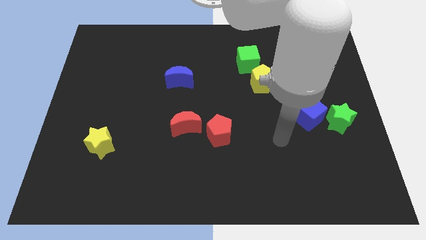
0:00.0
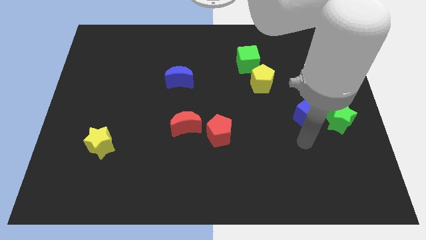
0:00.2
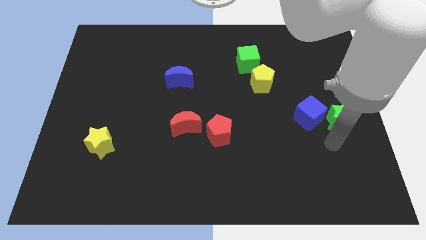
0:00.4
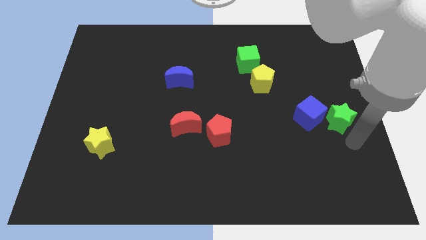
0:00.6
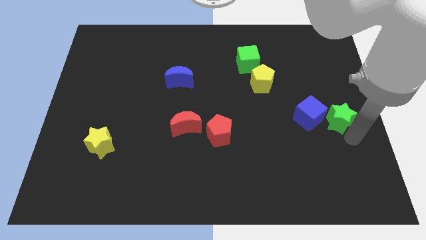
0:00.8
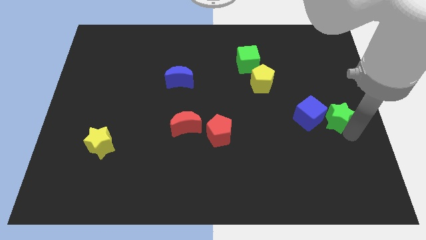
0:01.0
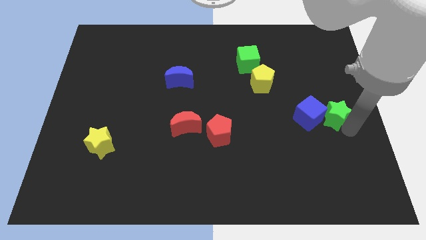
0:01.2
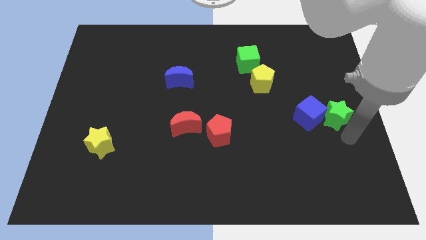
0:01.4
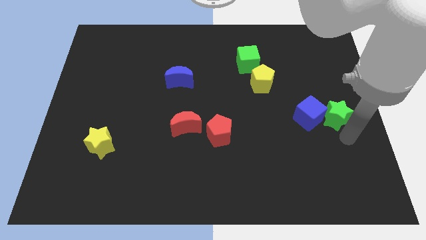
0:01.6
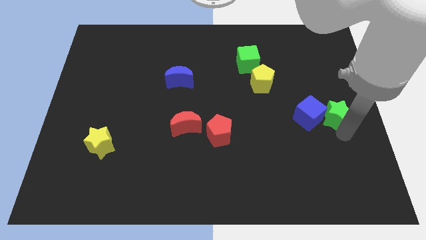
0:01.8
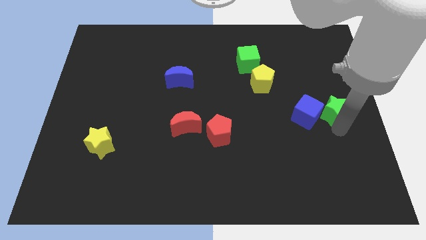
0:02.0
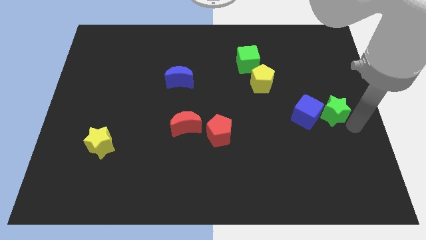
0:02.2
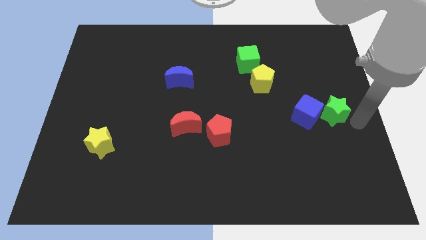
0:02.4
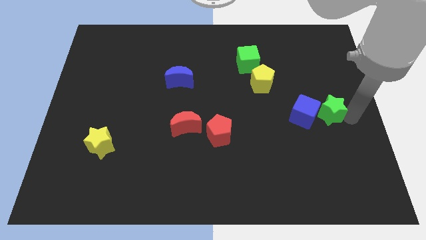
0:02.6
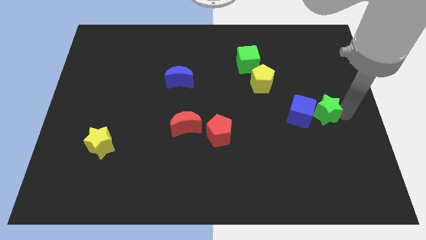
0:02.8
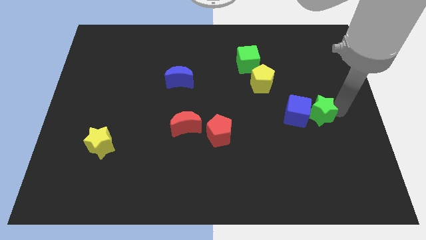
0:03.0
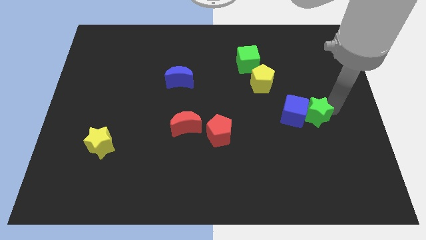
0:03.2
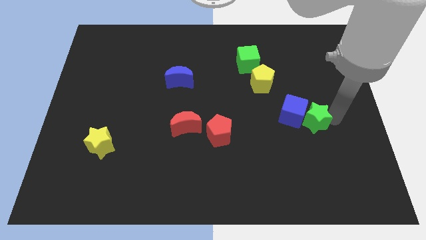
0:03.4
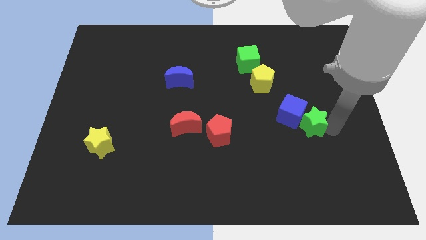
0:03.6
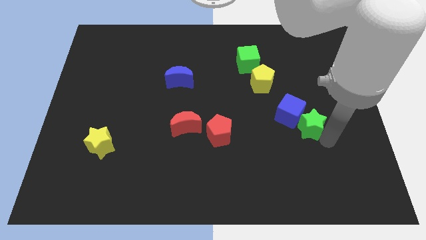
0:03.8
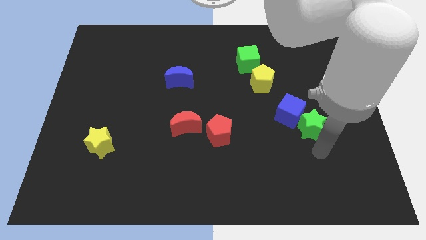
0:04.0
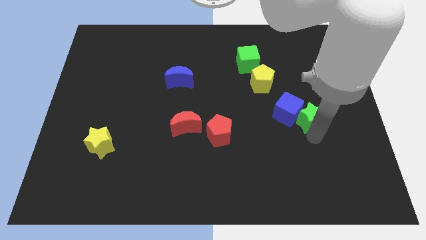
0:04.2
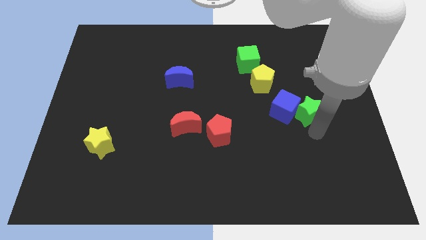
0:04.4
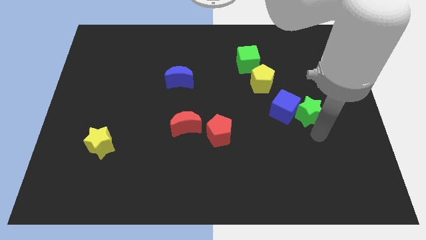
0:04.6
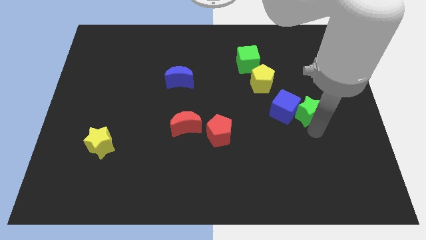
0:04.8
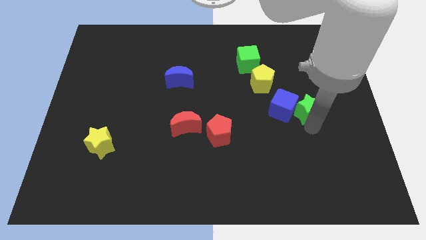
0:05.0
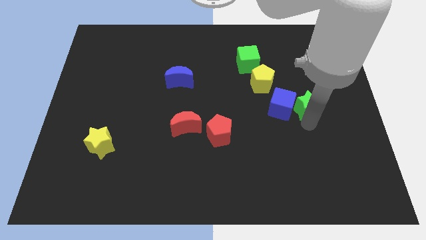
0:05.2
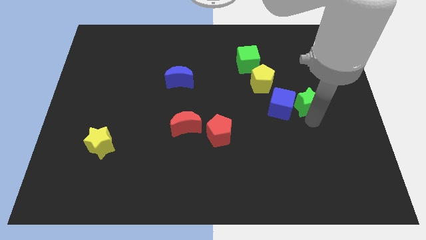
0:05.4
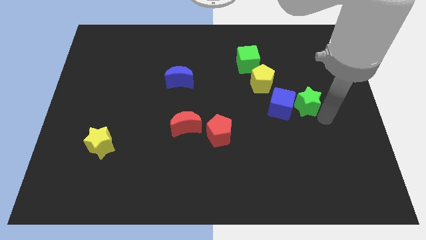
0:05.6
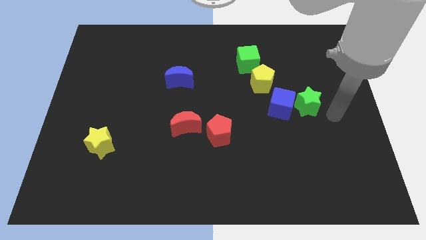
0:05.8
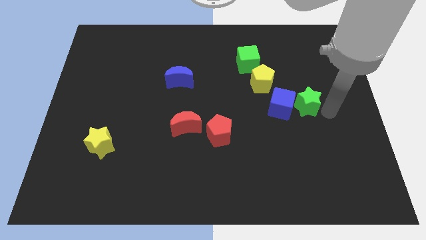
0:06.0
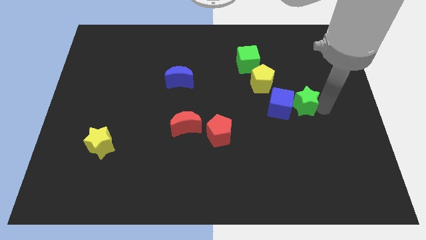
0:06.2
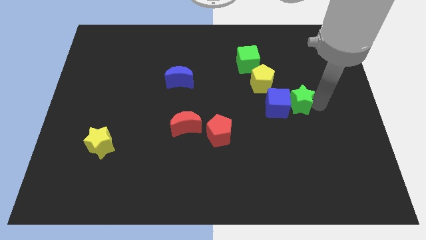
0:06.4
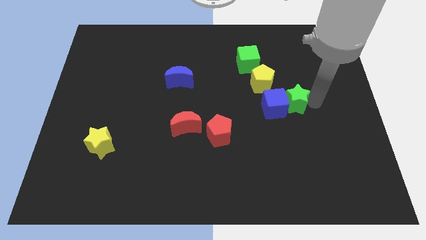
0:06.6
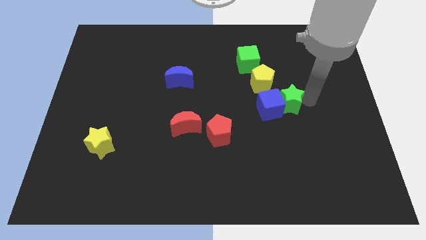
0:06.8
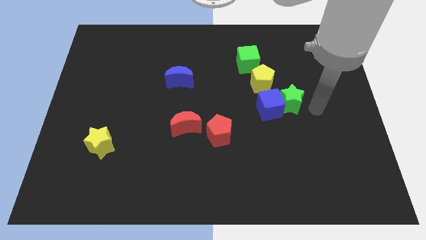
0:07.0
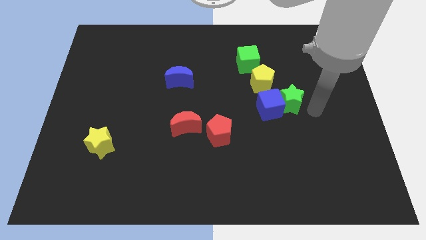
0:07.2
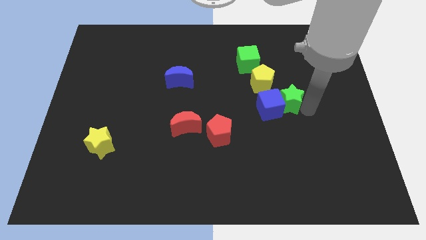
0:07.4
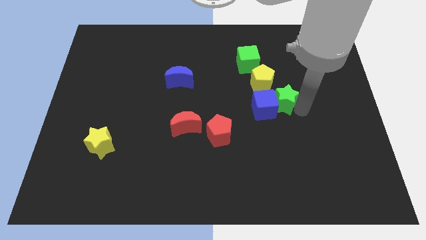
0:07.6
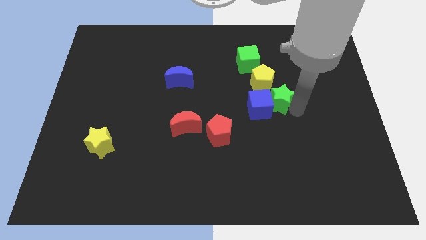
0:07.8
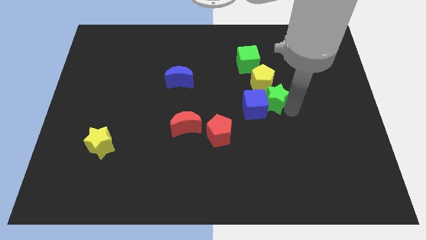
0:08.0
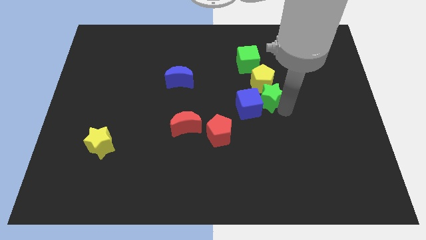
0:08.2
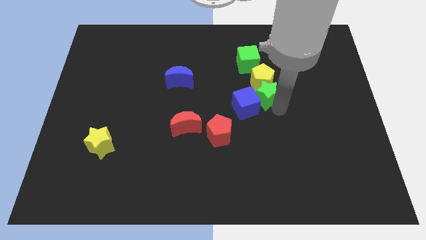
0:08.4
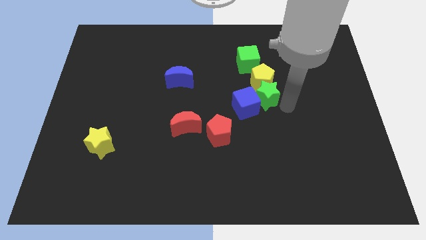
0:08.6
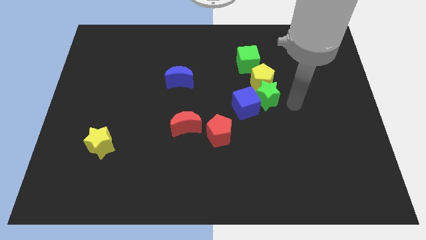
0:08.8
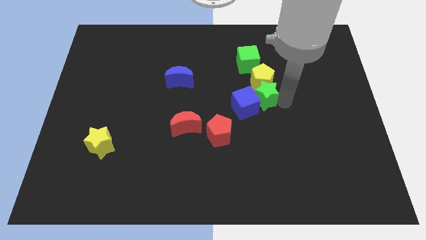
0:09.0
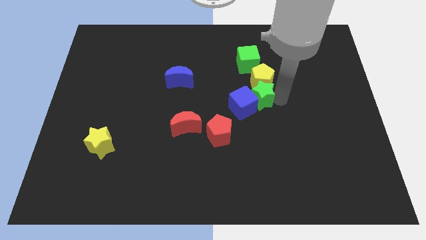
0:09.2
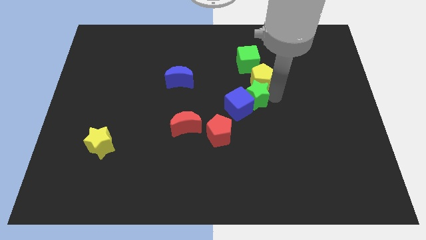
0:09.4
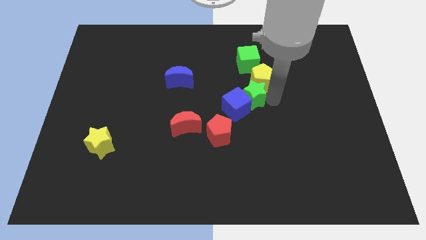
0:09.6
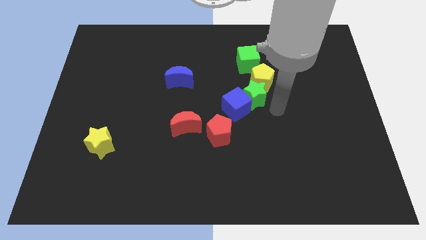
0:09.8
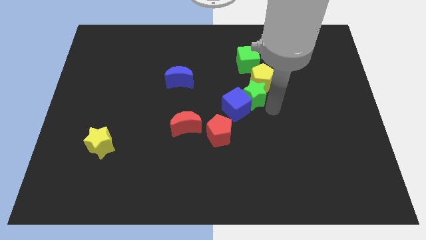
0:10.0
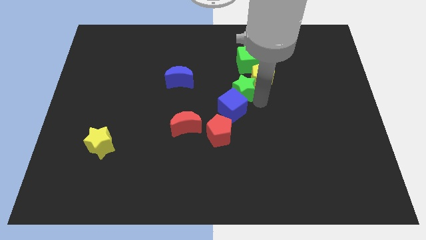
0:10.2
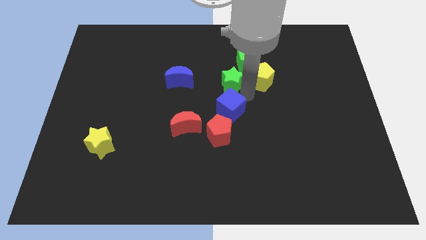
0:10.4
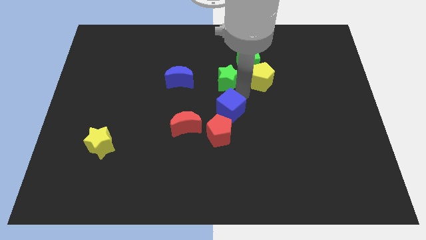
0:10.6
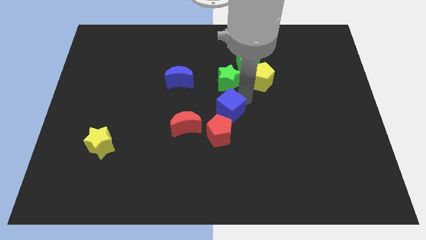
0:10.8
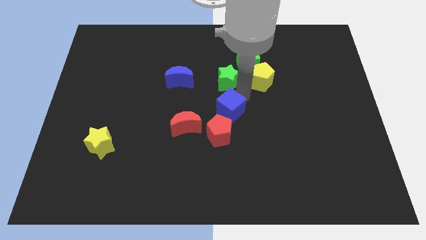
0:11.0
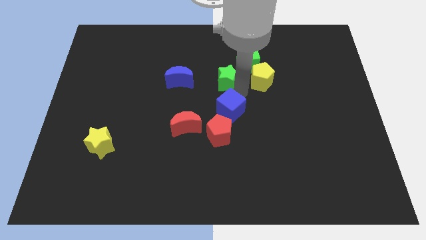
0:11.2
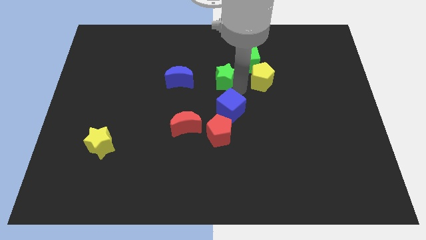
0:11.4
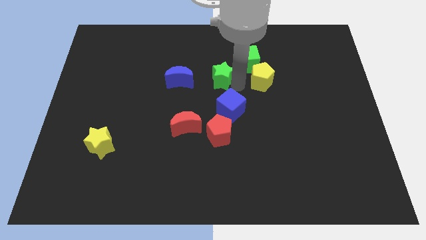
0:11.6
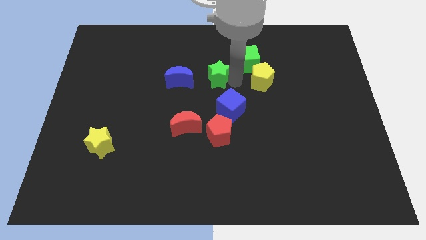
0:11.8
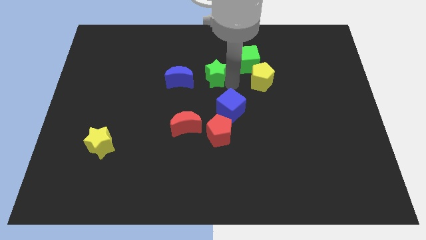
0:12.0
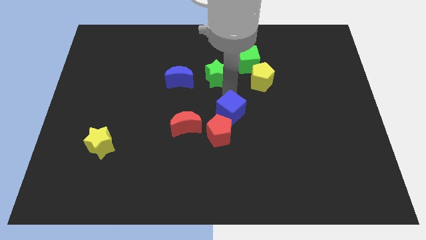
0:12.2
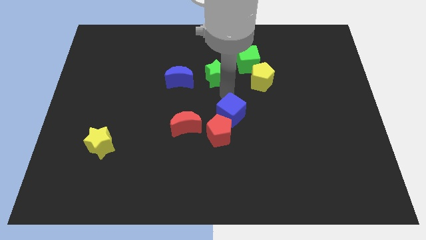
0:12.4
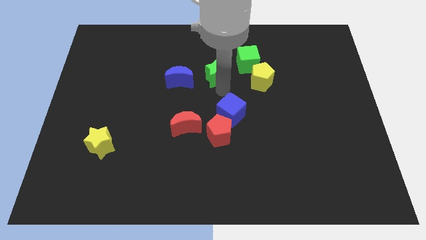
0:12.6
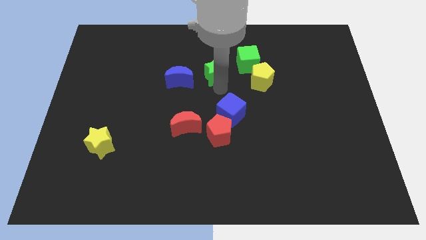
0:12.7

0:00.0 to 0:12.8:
slide the green star to the left side of the green cube

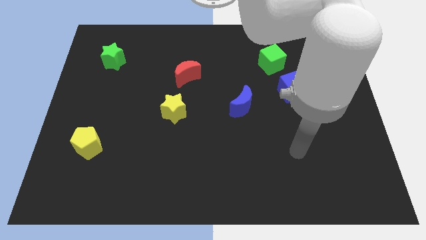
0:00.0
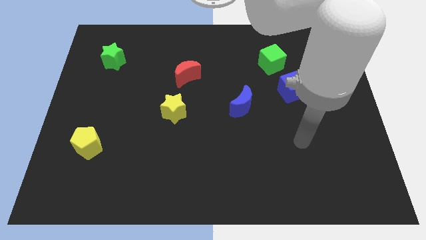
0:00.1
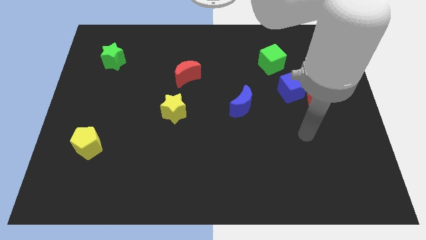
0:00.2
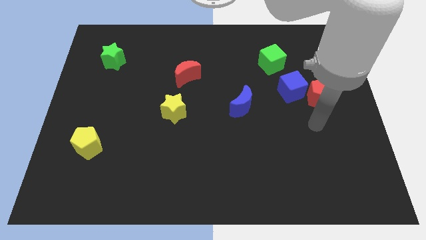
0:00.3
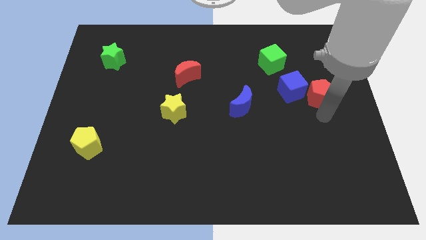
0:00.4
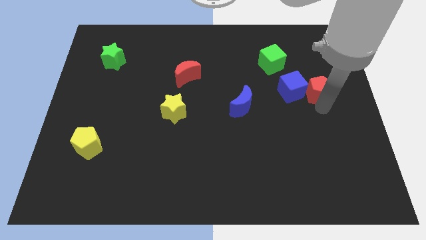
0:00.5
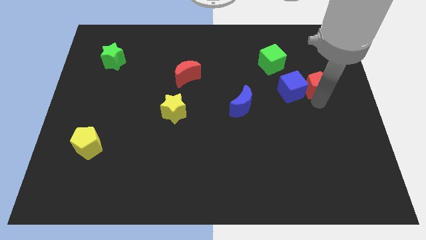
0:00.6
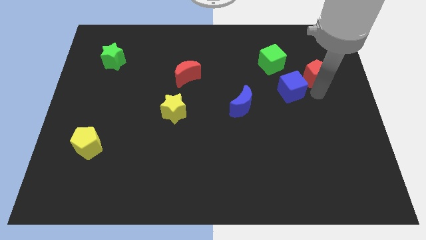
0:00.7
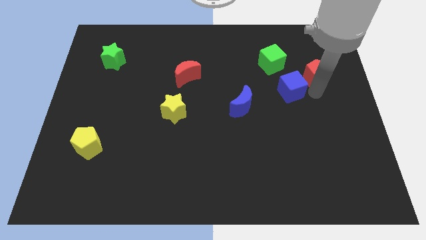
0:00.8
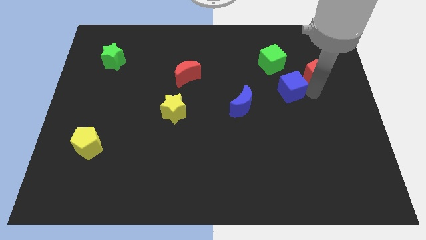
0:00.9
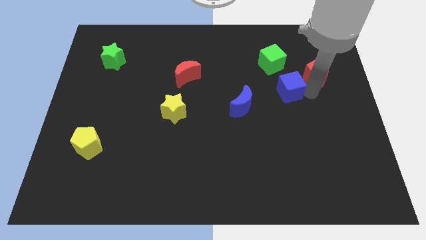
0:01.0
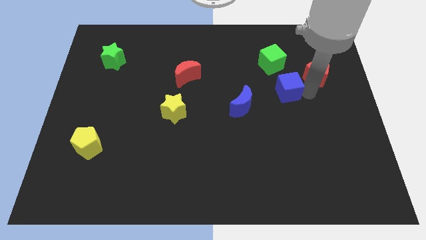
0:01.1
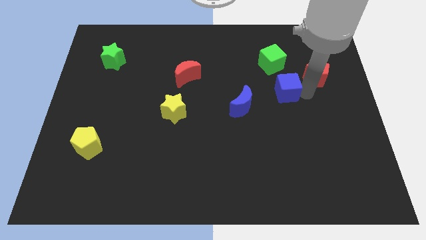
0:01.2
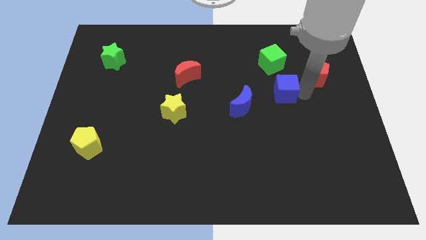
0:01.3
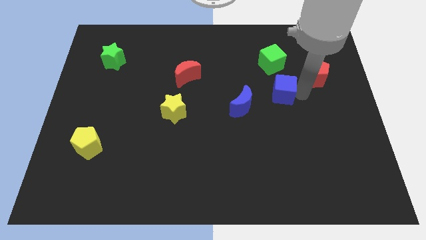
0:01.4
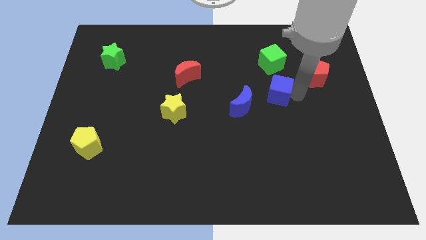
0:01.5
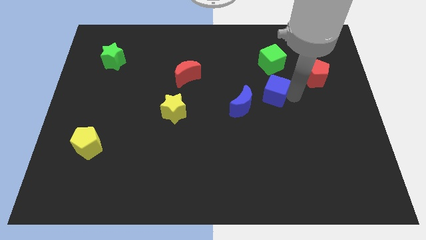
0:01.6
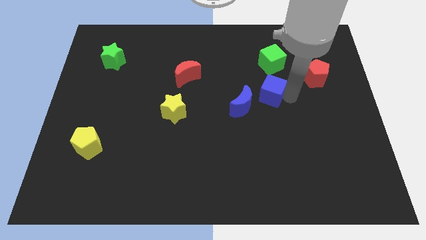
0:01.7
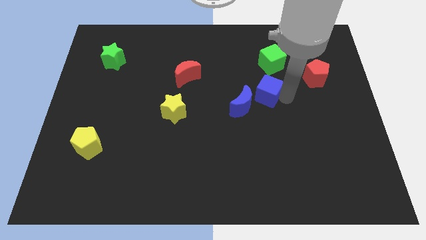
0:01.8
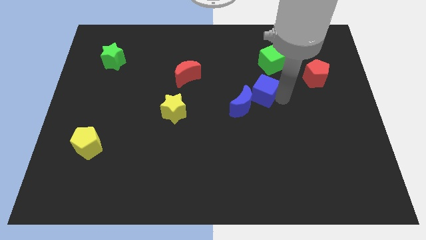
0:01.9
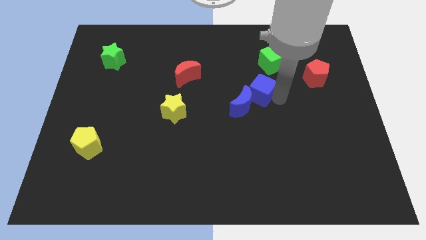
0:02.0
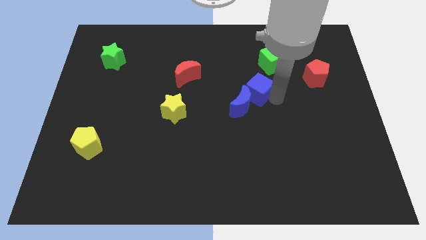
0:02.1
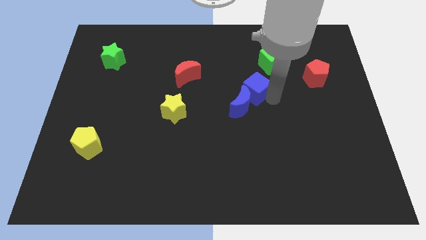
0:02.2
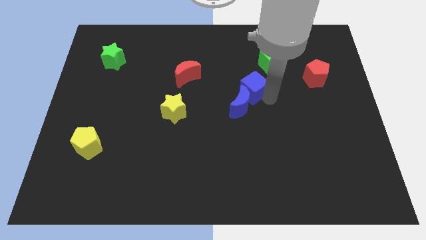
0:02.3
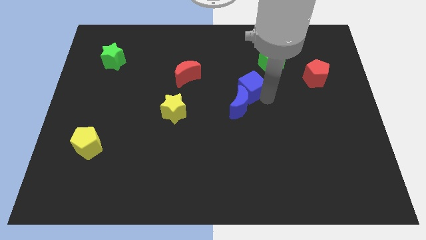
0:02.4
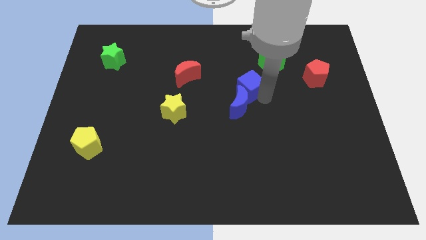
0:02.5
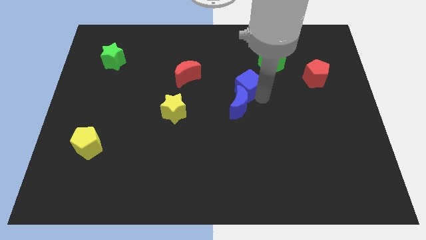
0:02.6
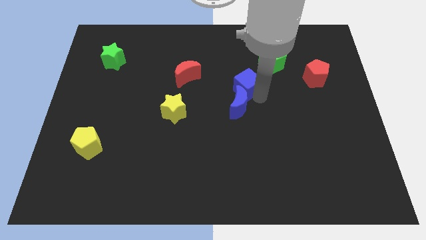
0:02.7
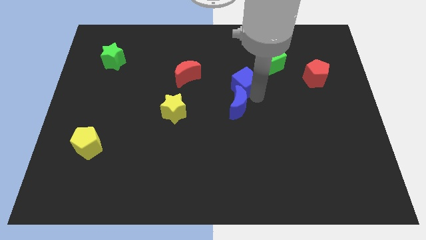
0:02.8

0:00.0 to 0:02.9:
push the blue cube to the right of the red moon
